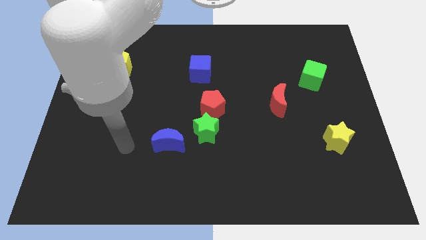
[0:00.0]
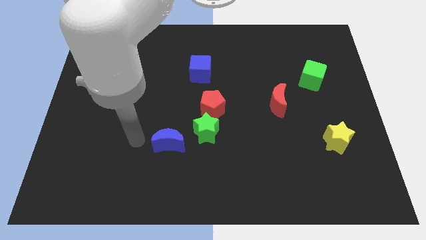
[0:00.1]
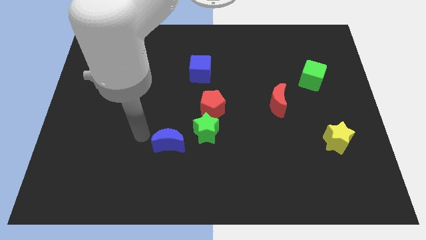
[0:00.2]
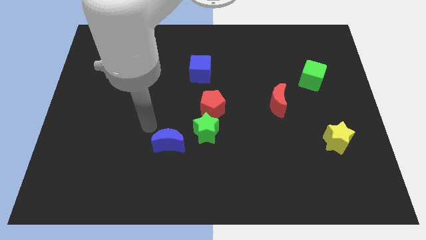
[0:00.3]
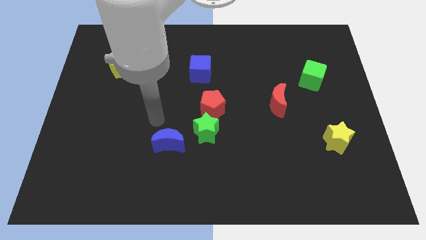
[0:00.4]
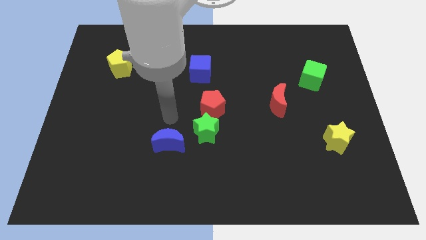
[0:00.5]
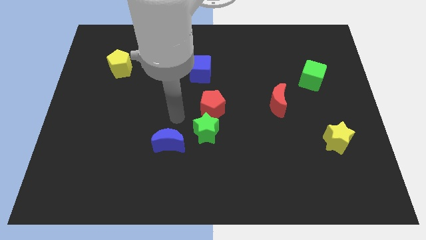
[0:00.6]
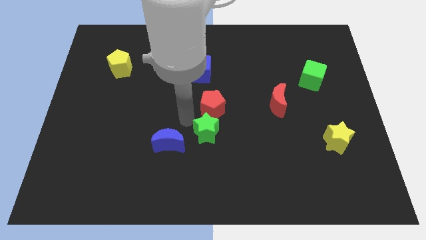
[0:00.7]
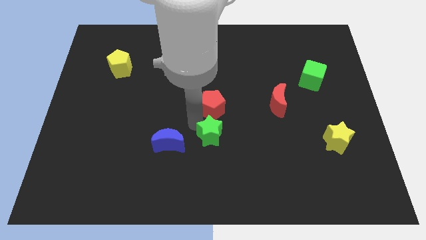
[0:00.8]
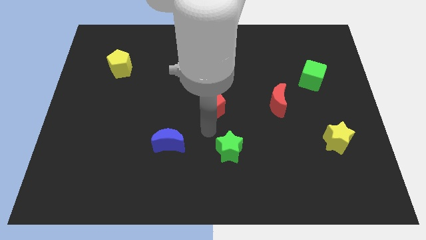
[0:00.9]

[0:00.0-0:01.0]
separate the red pentagon from the green star

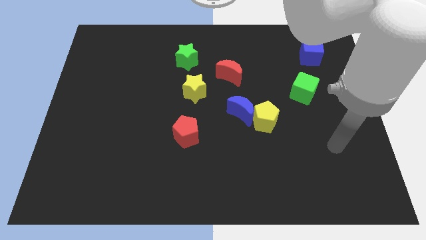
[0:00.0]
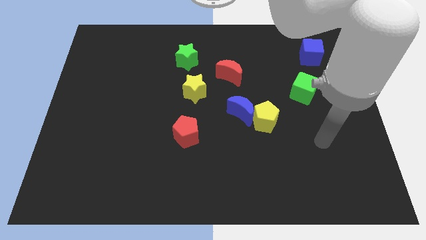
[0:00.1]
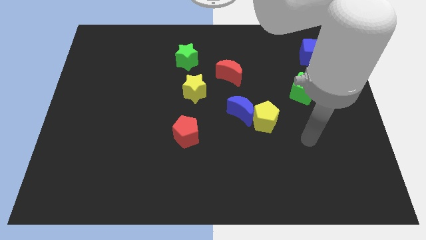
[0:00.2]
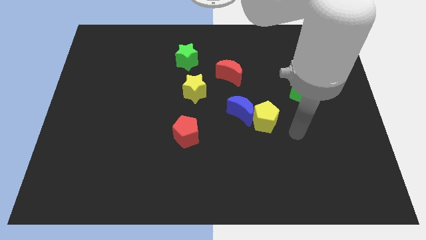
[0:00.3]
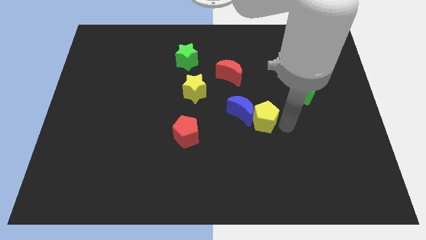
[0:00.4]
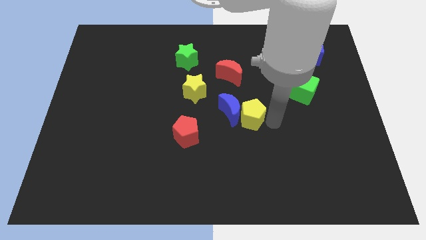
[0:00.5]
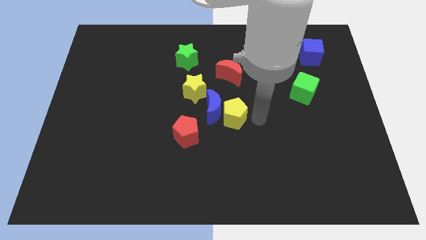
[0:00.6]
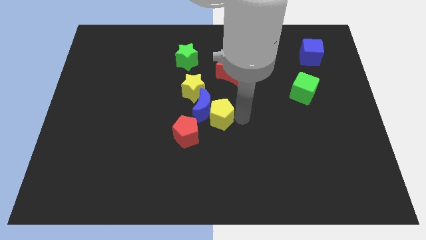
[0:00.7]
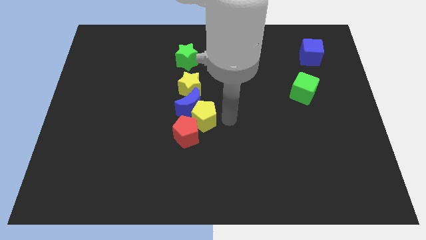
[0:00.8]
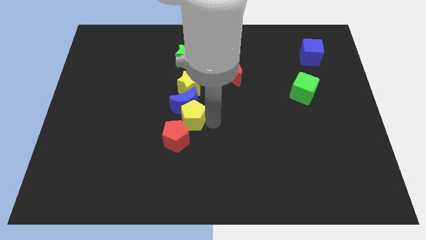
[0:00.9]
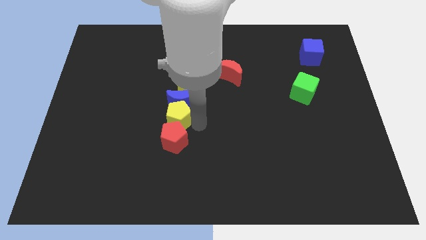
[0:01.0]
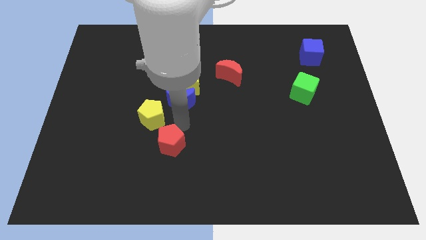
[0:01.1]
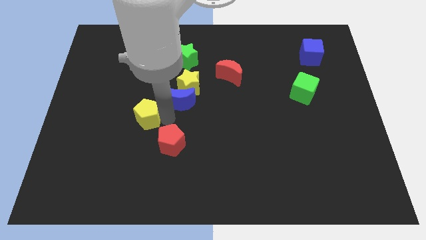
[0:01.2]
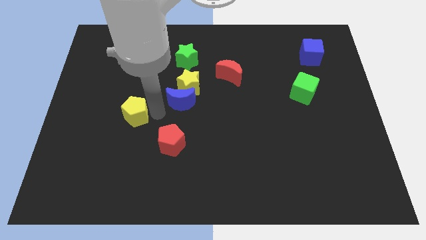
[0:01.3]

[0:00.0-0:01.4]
separate the blue moon from the yellow pentagon

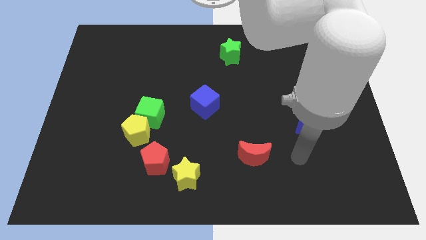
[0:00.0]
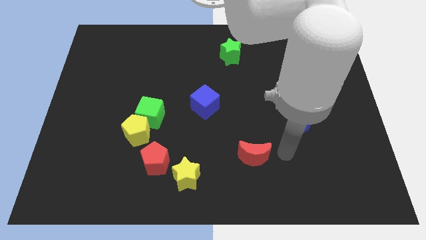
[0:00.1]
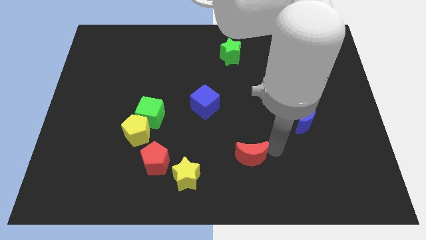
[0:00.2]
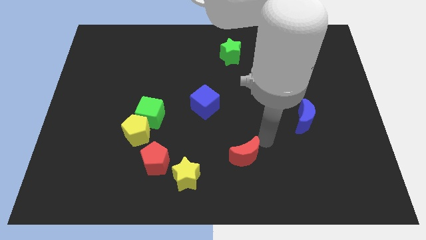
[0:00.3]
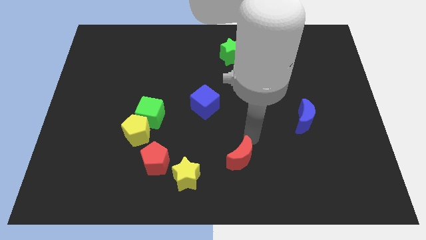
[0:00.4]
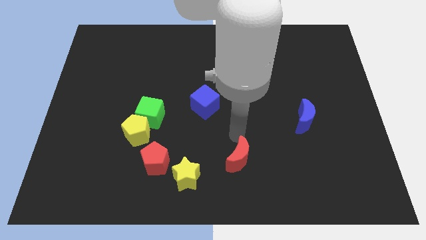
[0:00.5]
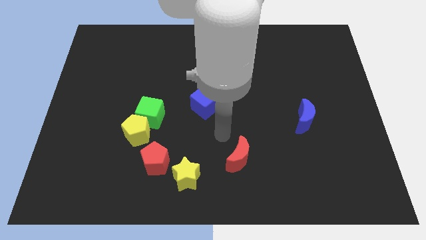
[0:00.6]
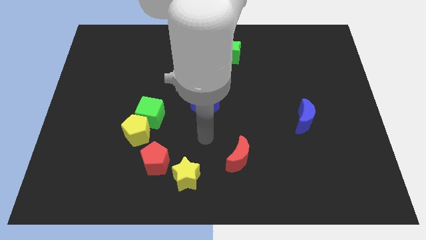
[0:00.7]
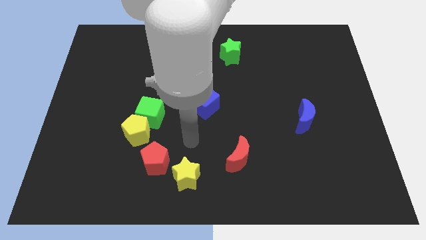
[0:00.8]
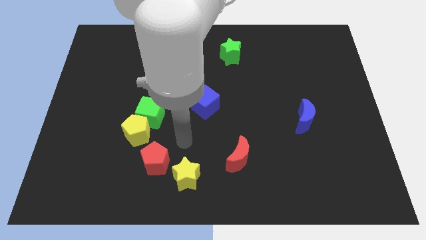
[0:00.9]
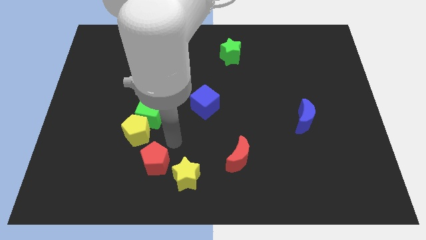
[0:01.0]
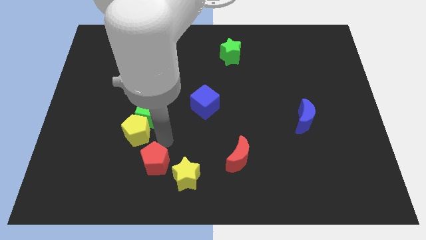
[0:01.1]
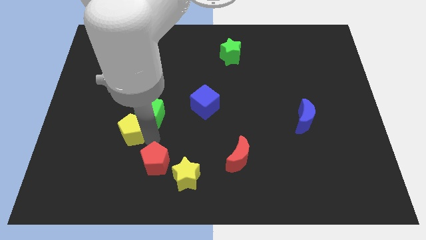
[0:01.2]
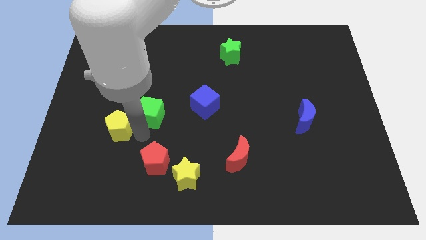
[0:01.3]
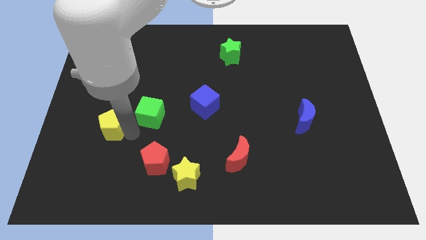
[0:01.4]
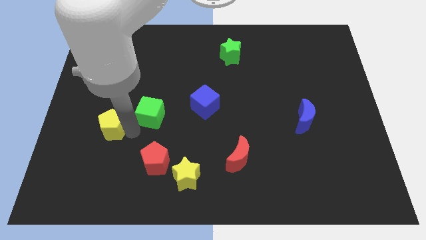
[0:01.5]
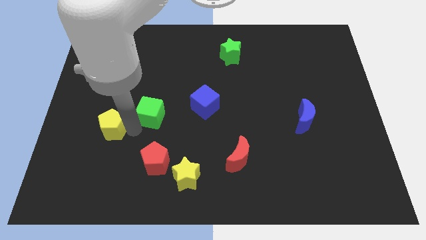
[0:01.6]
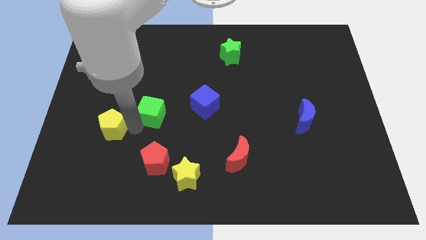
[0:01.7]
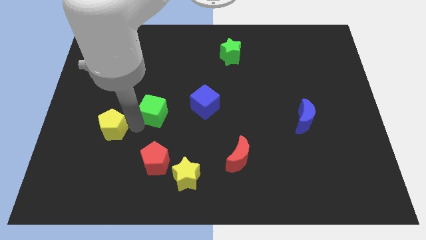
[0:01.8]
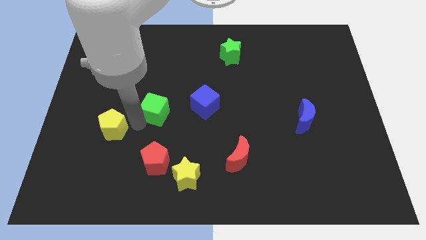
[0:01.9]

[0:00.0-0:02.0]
pull the green cube apart from the yellow pentagon

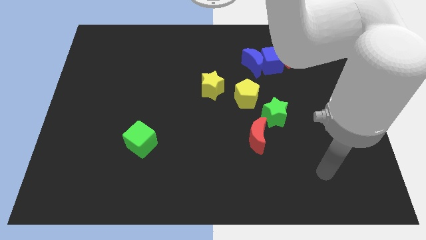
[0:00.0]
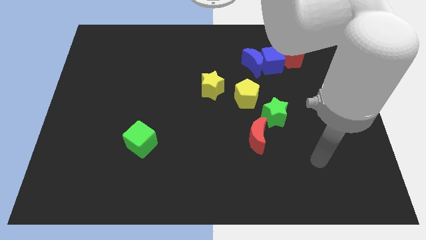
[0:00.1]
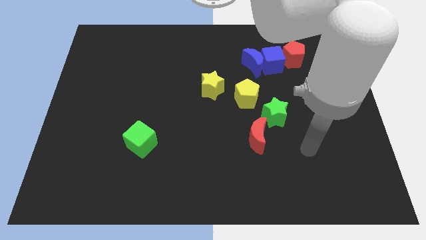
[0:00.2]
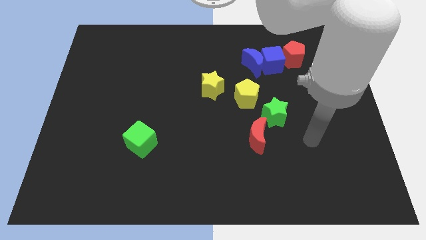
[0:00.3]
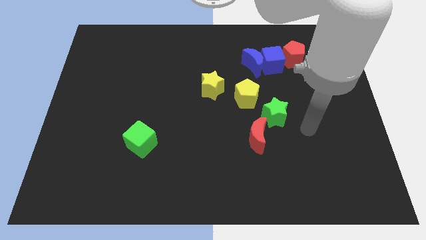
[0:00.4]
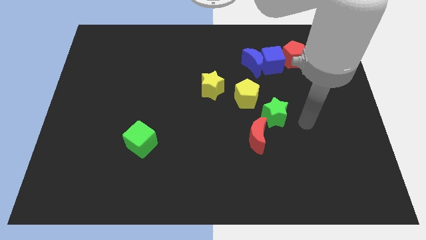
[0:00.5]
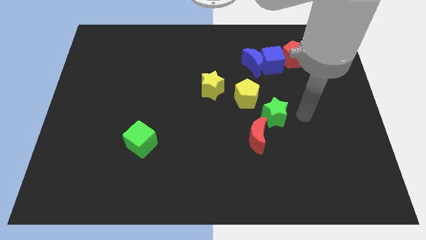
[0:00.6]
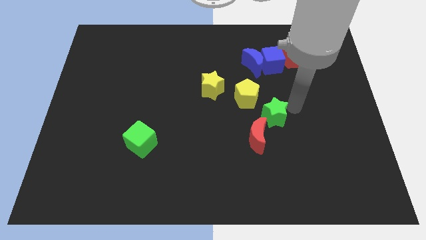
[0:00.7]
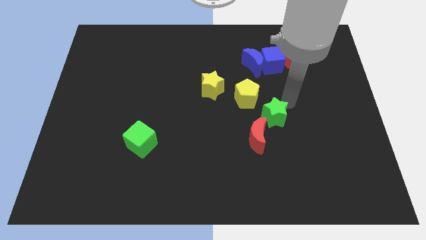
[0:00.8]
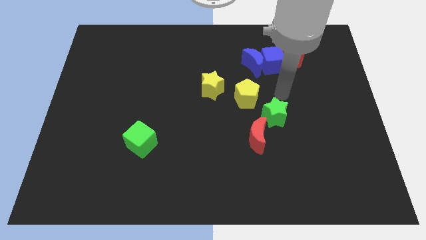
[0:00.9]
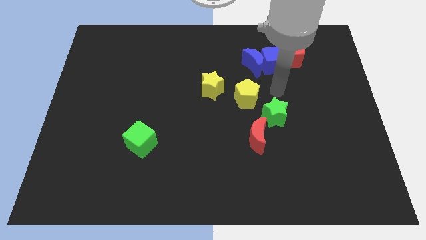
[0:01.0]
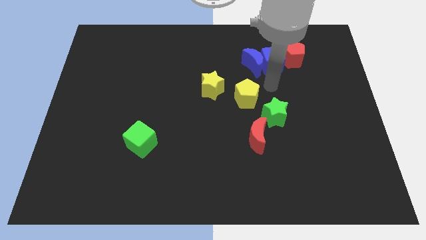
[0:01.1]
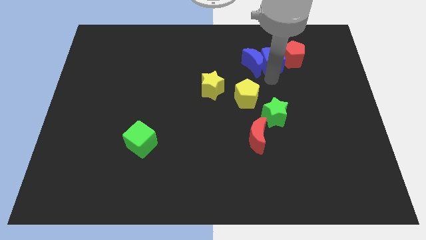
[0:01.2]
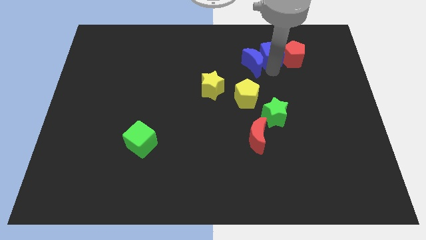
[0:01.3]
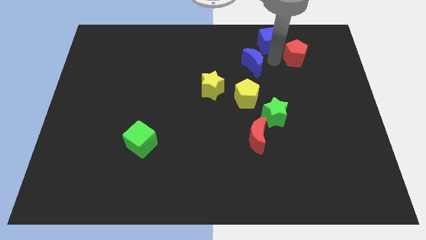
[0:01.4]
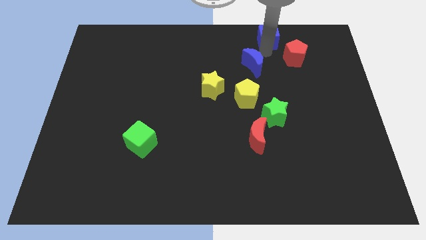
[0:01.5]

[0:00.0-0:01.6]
pull the blue moon apart from the blue cube

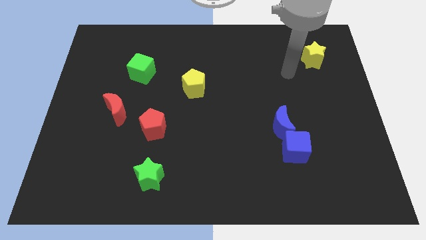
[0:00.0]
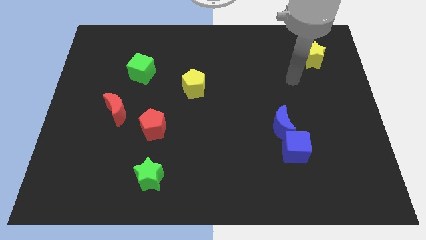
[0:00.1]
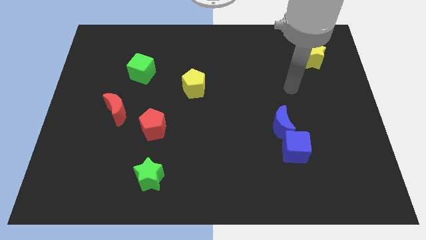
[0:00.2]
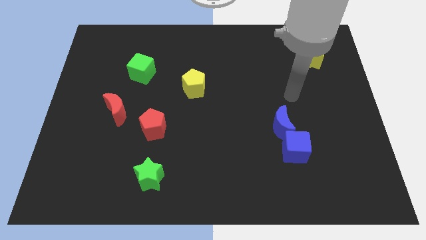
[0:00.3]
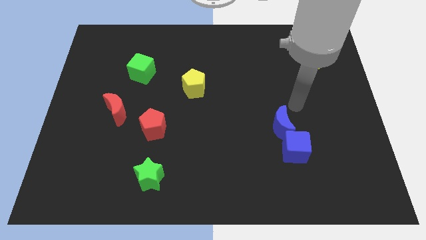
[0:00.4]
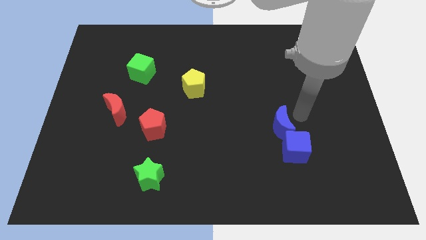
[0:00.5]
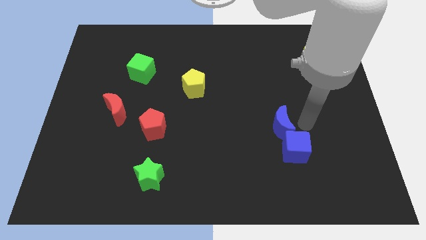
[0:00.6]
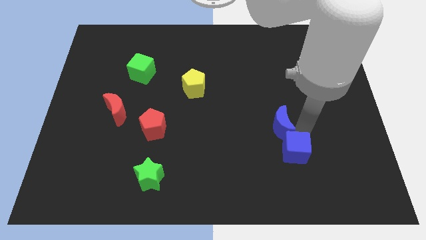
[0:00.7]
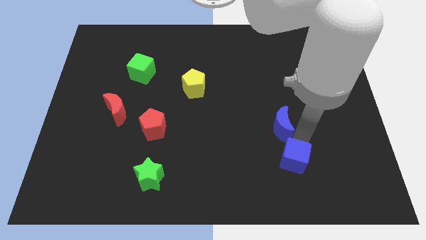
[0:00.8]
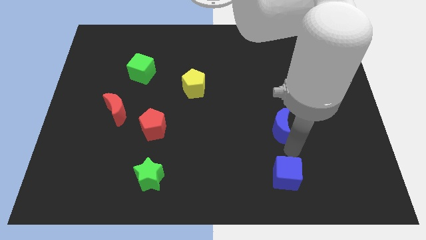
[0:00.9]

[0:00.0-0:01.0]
separate the blue moon from the blue cube

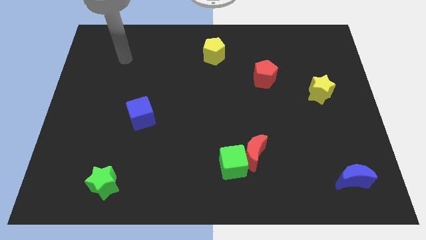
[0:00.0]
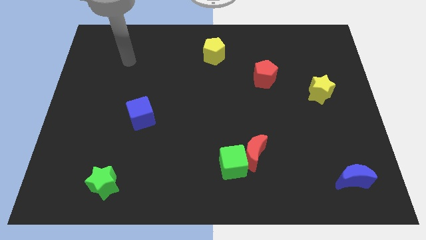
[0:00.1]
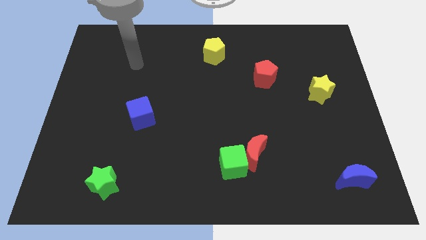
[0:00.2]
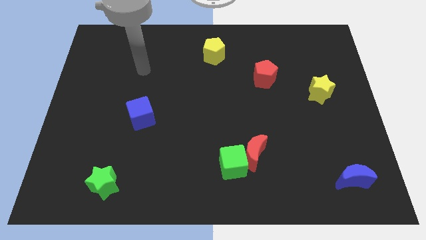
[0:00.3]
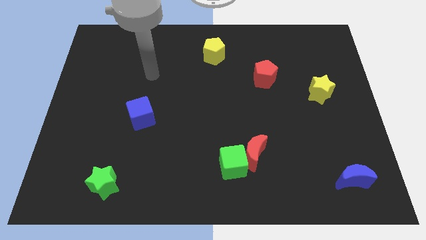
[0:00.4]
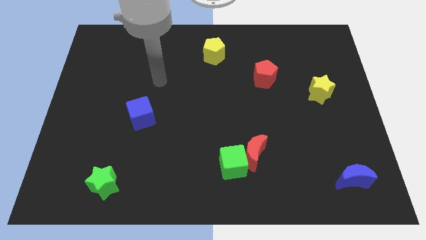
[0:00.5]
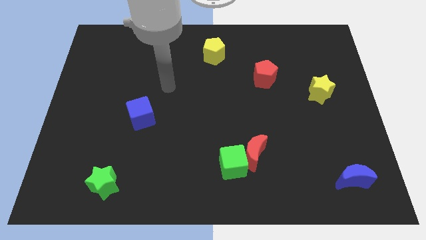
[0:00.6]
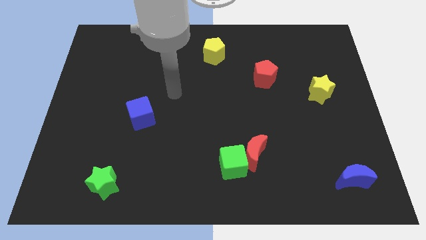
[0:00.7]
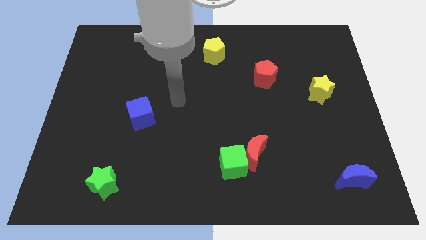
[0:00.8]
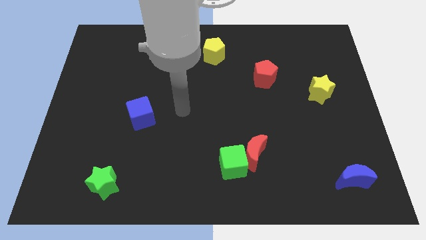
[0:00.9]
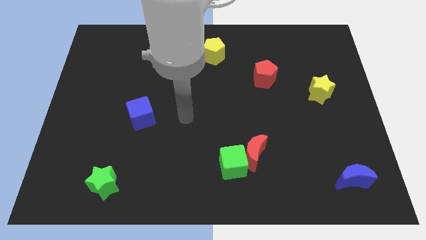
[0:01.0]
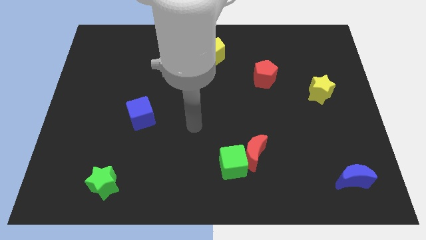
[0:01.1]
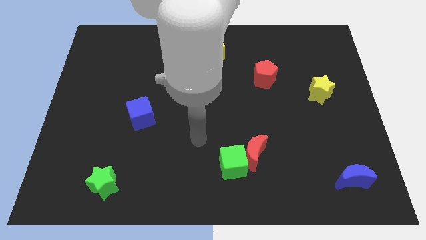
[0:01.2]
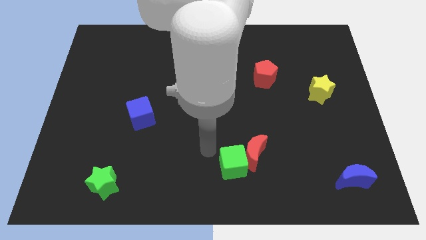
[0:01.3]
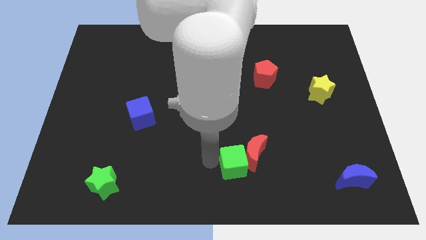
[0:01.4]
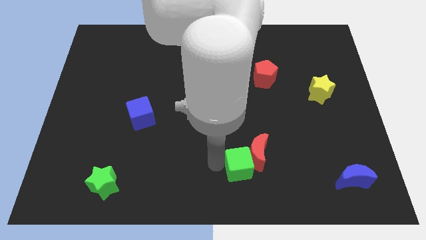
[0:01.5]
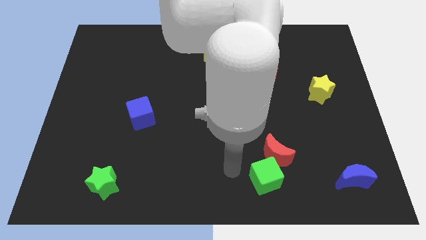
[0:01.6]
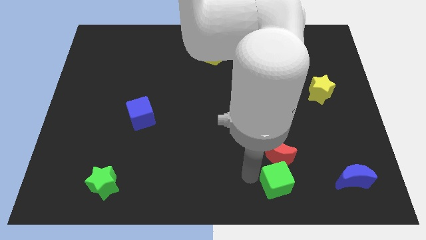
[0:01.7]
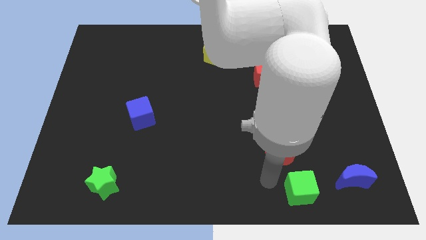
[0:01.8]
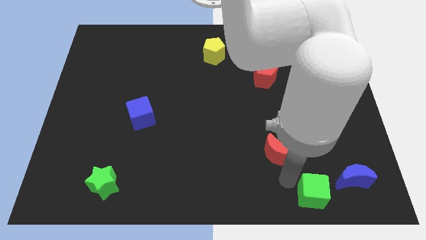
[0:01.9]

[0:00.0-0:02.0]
pull the red moon apart from the green cube

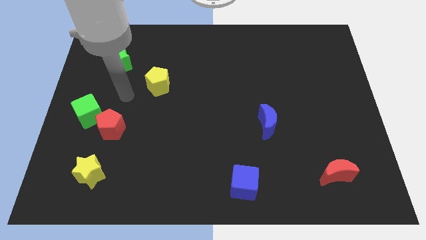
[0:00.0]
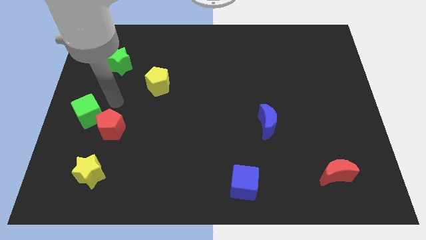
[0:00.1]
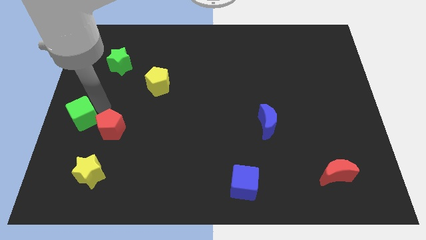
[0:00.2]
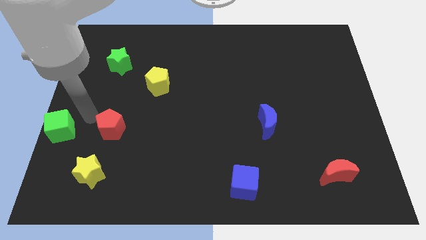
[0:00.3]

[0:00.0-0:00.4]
pull the red pentagon apart from the green cube
